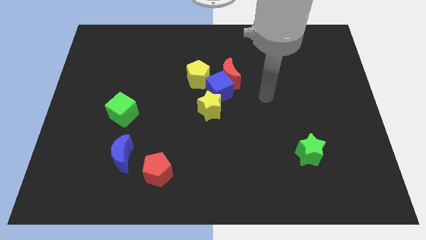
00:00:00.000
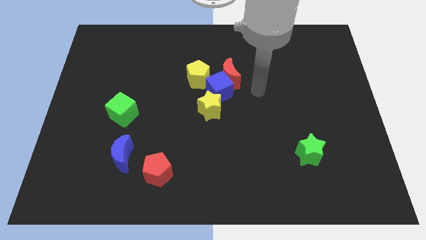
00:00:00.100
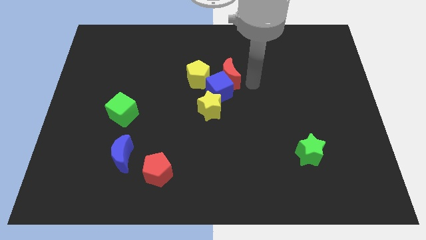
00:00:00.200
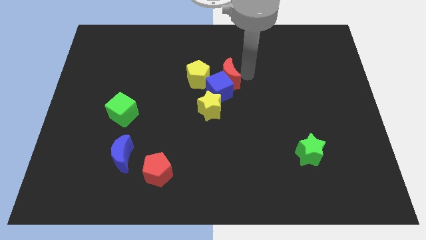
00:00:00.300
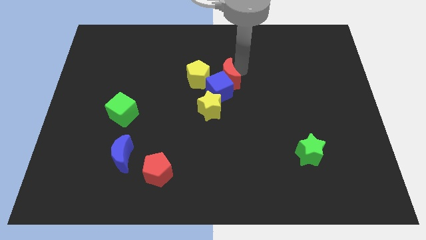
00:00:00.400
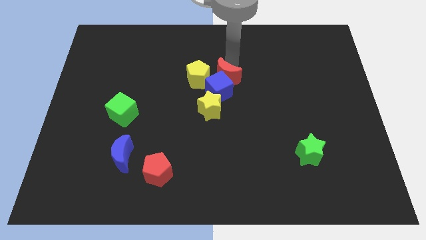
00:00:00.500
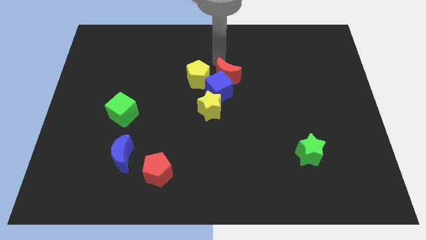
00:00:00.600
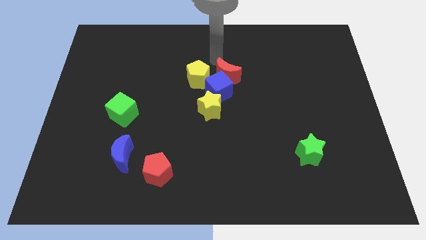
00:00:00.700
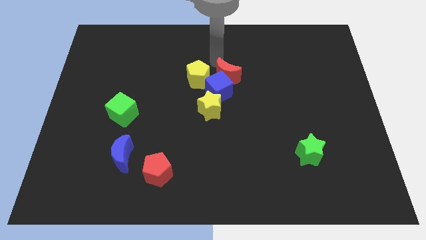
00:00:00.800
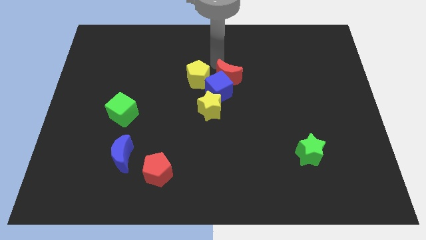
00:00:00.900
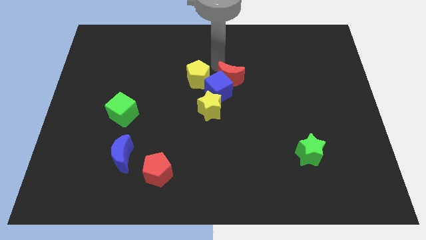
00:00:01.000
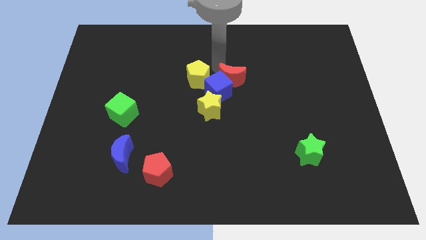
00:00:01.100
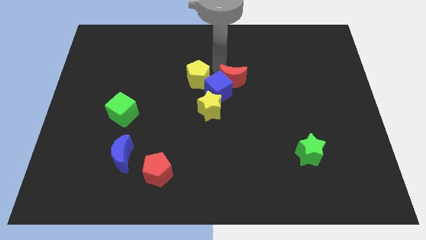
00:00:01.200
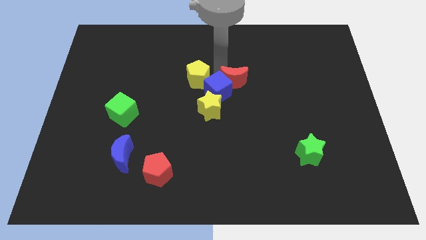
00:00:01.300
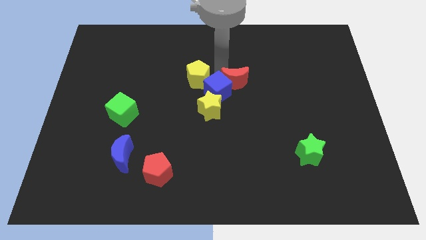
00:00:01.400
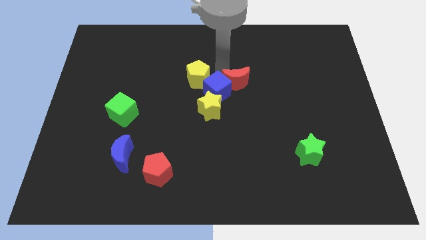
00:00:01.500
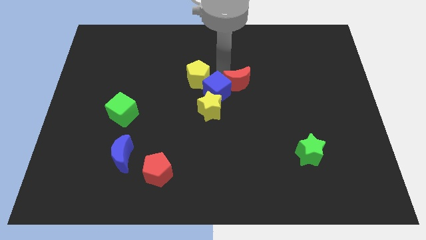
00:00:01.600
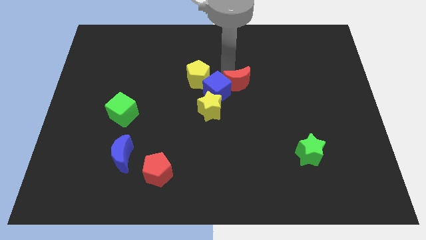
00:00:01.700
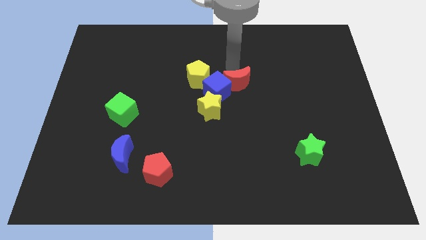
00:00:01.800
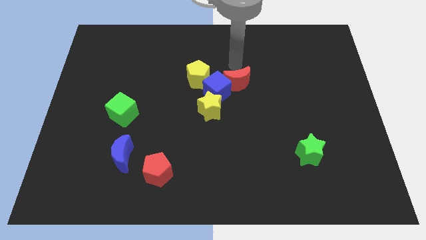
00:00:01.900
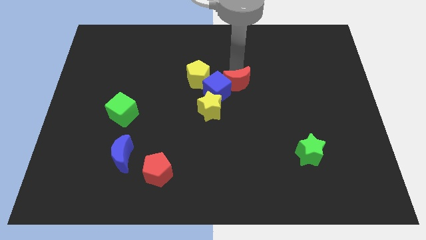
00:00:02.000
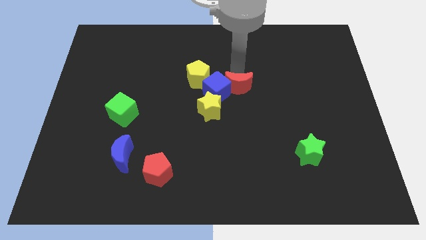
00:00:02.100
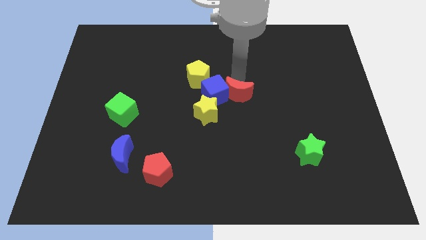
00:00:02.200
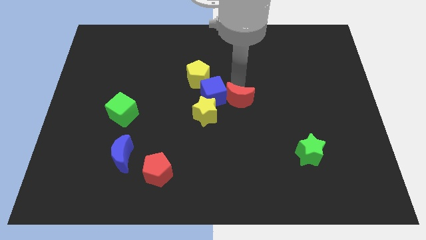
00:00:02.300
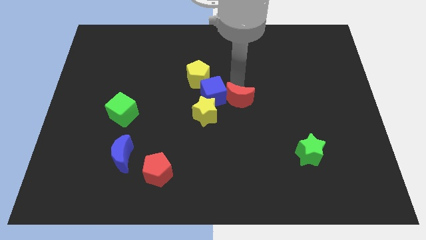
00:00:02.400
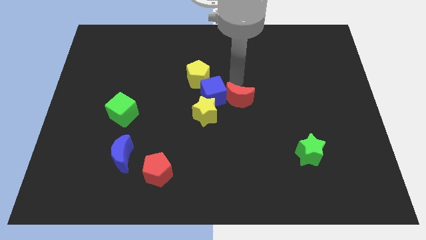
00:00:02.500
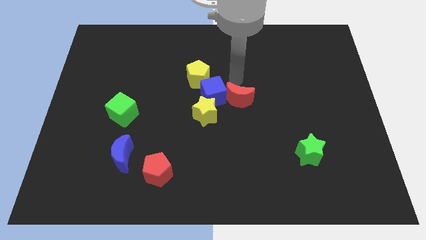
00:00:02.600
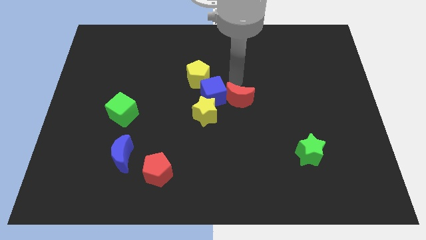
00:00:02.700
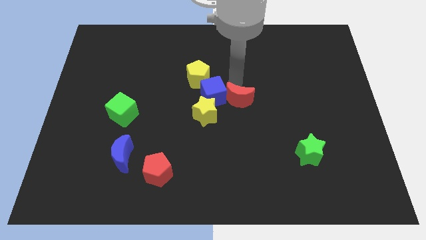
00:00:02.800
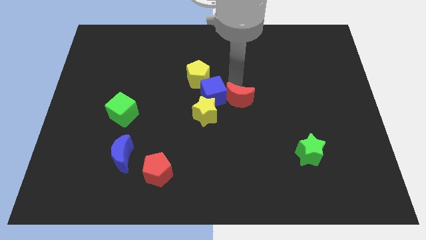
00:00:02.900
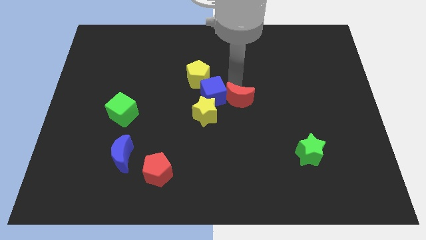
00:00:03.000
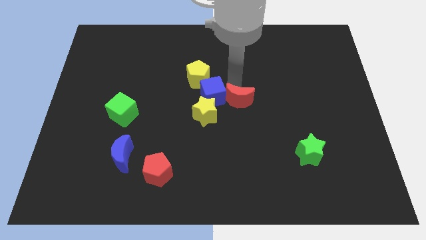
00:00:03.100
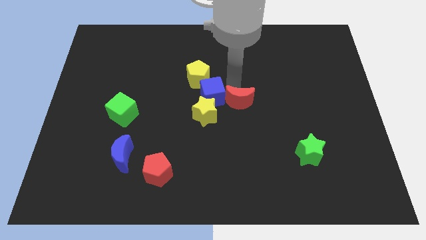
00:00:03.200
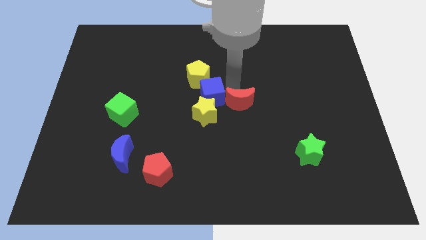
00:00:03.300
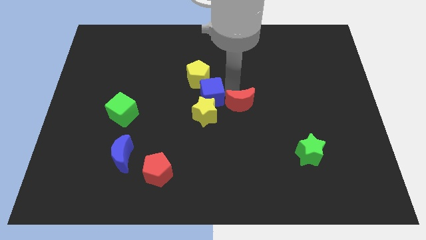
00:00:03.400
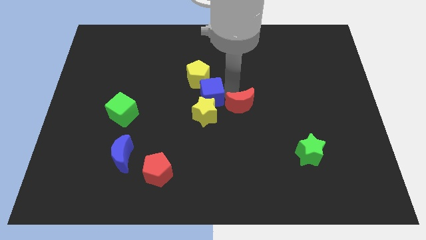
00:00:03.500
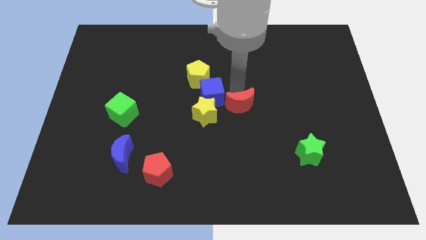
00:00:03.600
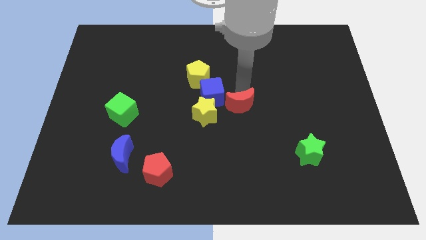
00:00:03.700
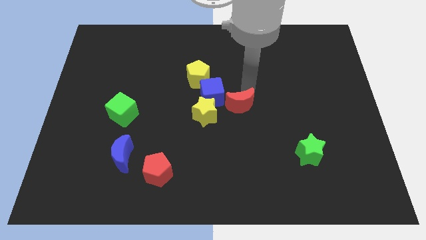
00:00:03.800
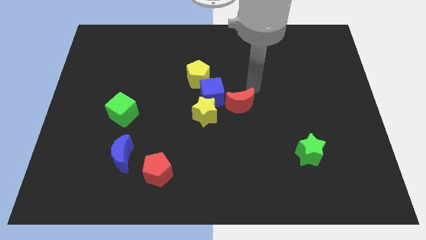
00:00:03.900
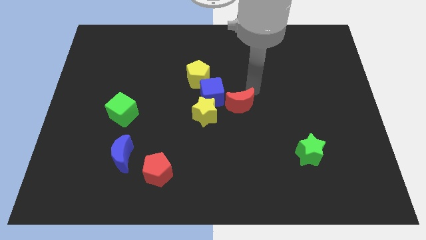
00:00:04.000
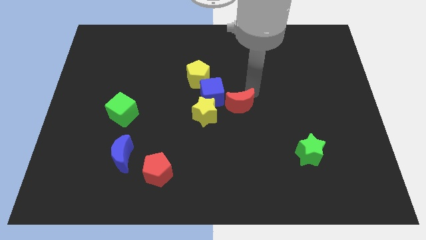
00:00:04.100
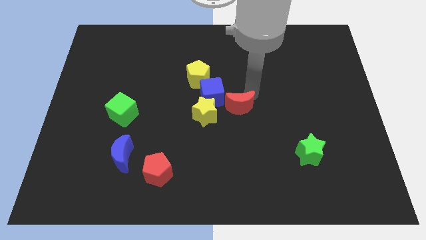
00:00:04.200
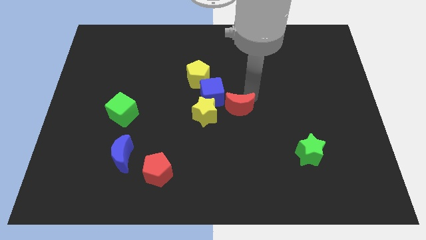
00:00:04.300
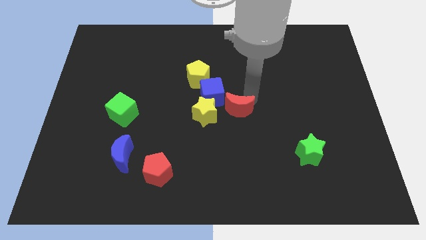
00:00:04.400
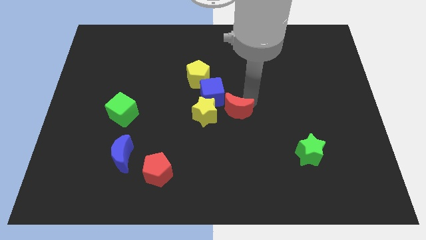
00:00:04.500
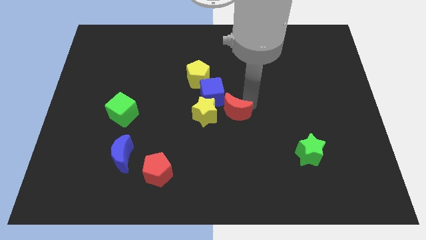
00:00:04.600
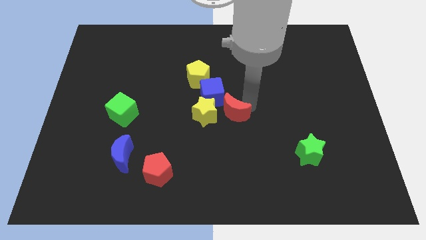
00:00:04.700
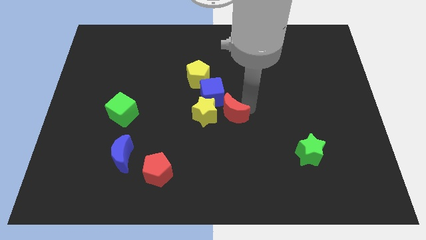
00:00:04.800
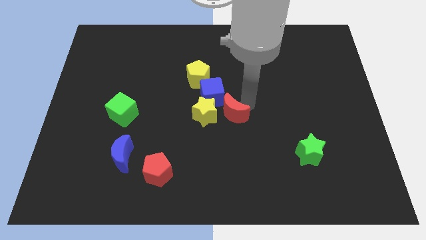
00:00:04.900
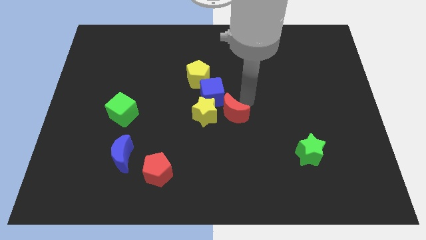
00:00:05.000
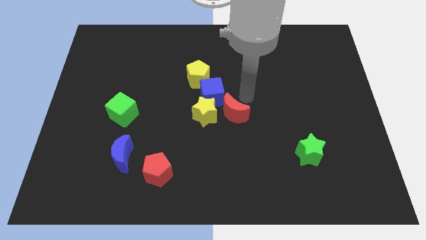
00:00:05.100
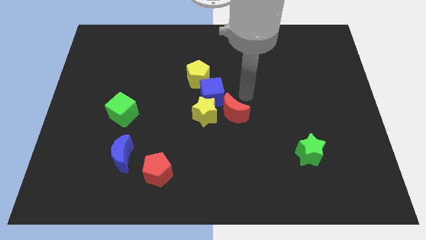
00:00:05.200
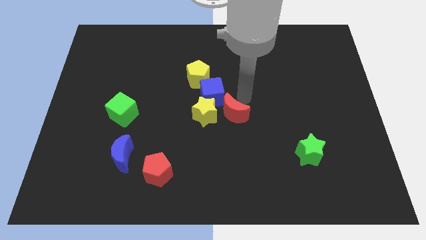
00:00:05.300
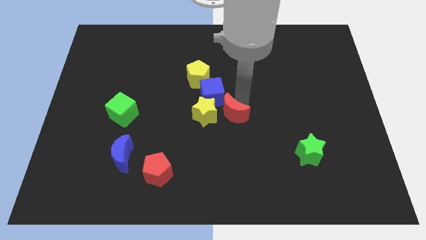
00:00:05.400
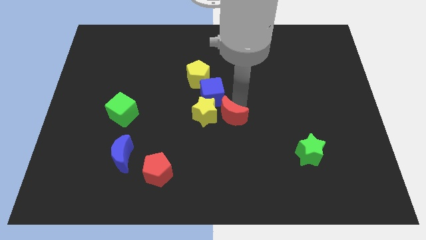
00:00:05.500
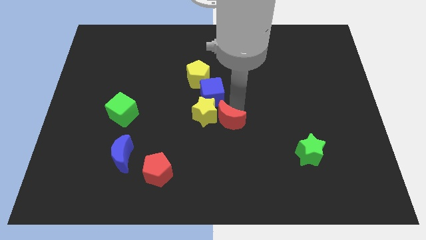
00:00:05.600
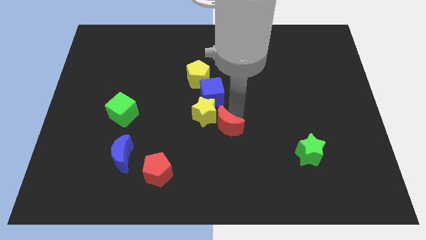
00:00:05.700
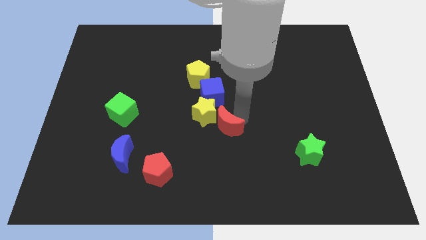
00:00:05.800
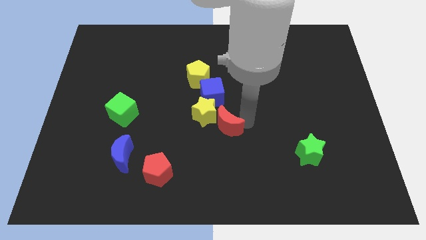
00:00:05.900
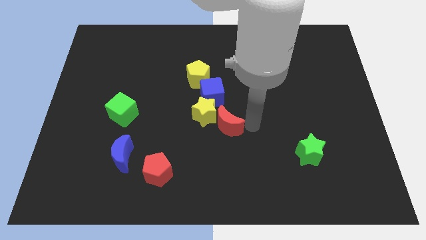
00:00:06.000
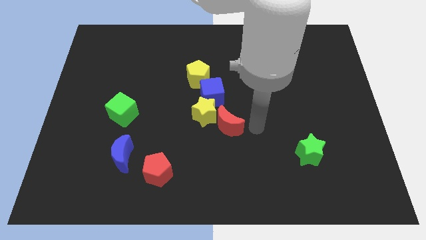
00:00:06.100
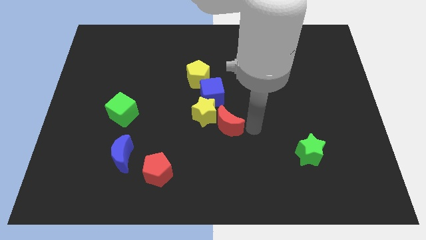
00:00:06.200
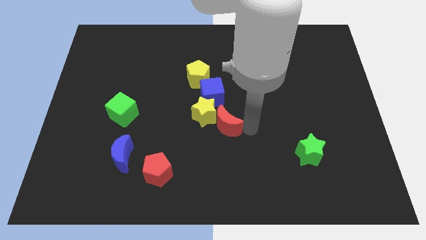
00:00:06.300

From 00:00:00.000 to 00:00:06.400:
slightly move the red moon downwards and left diagonally

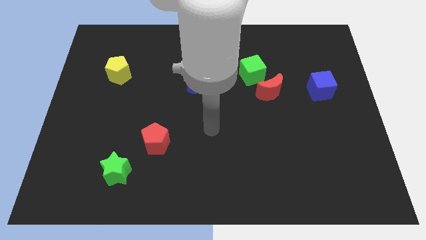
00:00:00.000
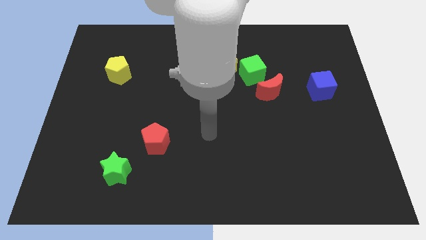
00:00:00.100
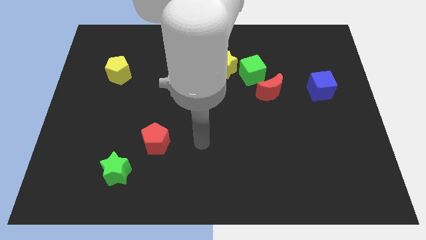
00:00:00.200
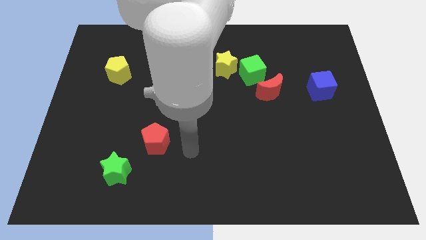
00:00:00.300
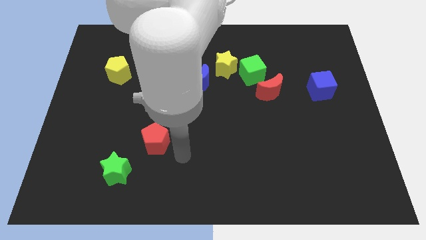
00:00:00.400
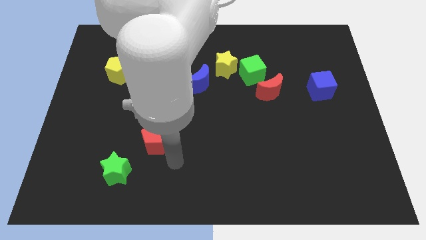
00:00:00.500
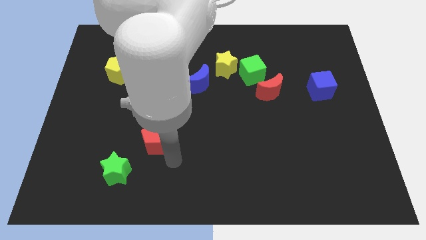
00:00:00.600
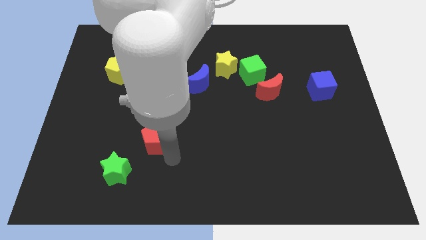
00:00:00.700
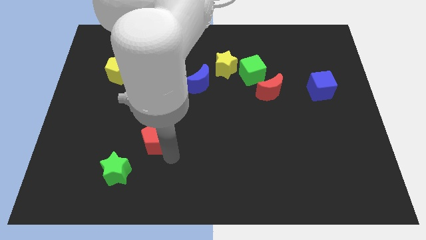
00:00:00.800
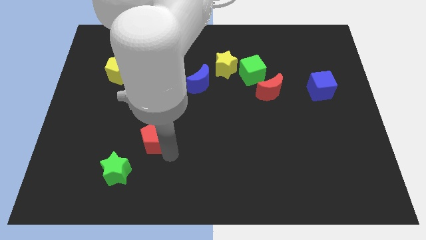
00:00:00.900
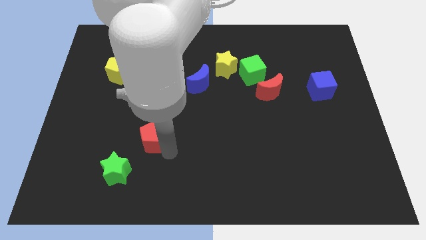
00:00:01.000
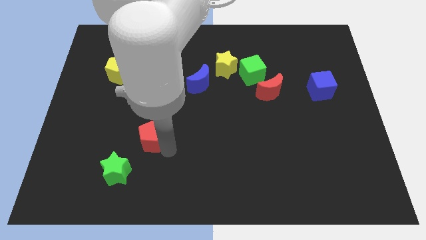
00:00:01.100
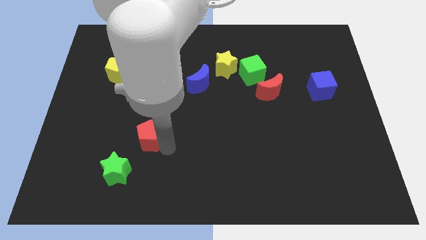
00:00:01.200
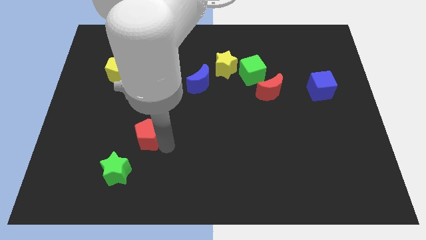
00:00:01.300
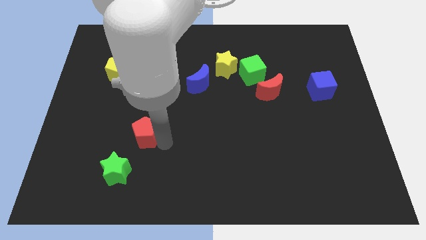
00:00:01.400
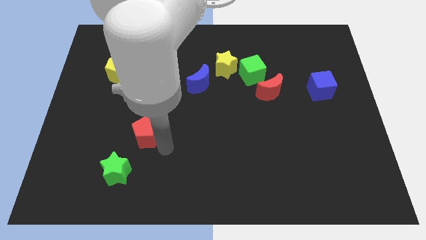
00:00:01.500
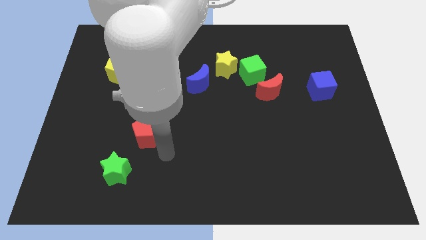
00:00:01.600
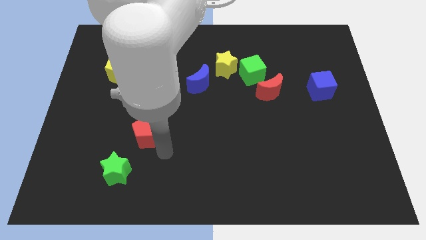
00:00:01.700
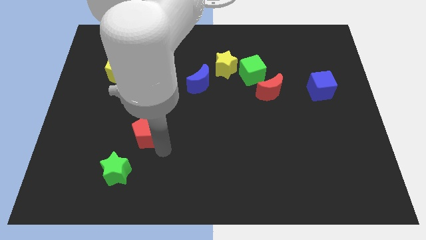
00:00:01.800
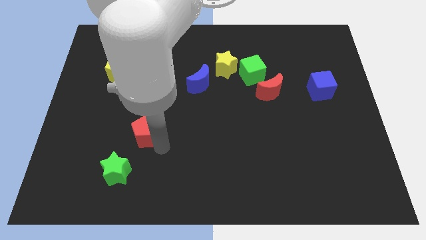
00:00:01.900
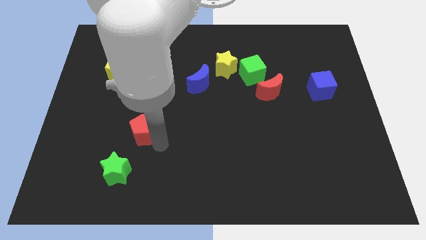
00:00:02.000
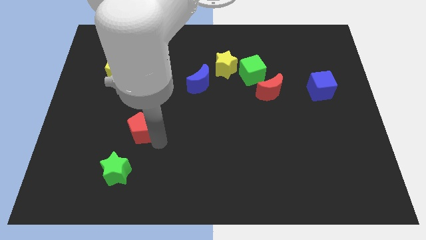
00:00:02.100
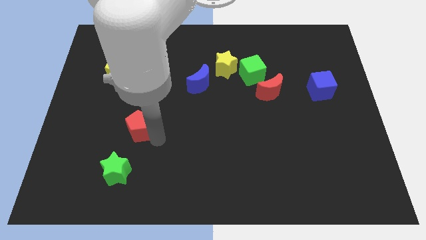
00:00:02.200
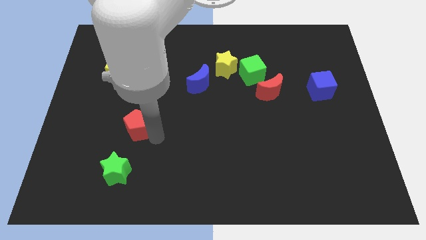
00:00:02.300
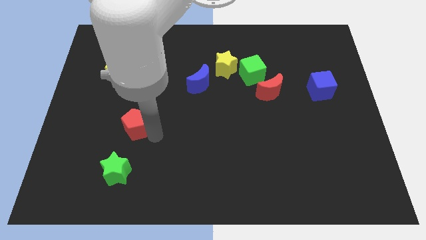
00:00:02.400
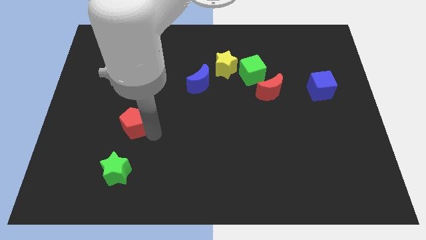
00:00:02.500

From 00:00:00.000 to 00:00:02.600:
push the red pentagon slightly up and then left
